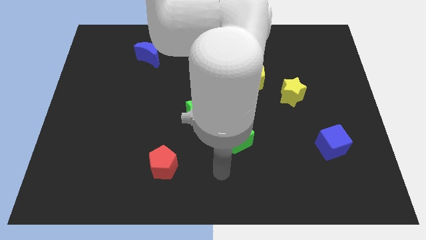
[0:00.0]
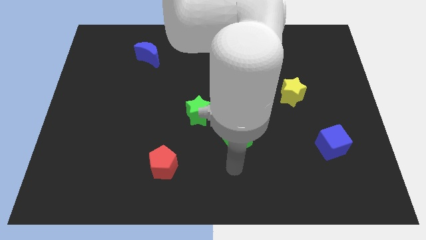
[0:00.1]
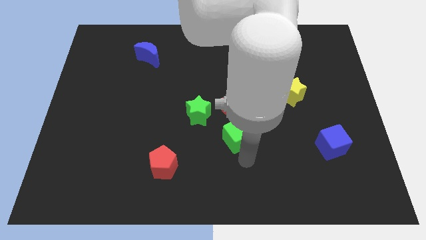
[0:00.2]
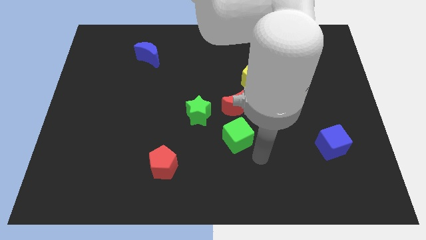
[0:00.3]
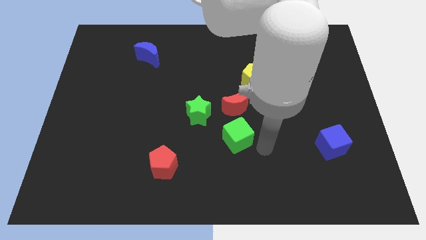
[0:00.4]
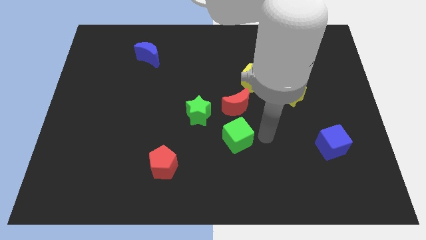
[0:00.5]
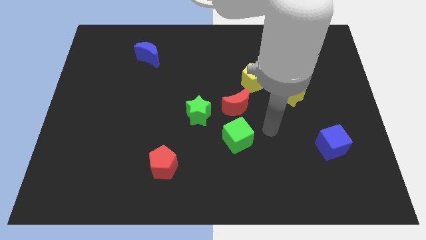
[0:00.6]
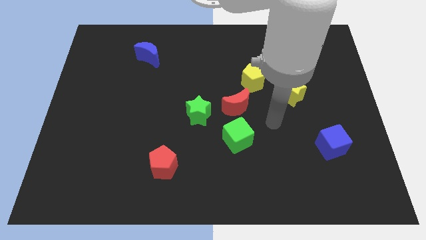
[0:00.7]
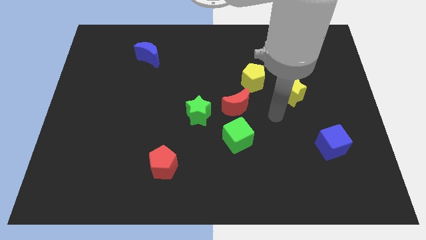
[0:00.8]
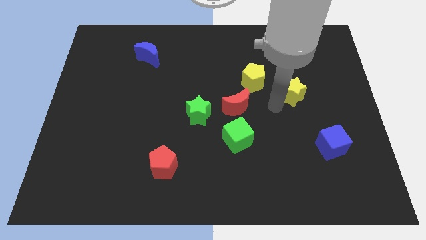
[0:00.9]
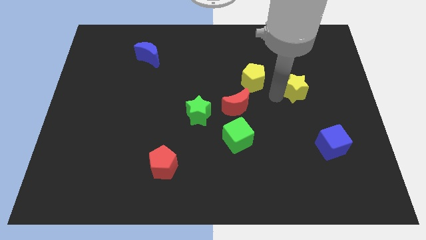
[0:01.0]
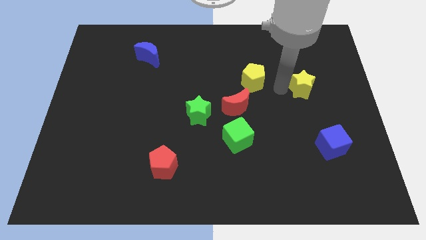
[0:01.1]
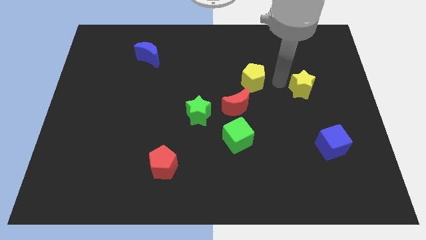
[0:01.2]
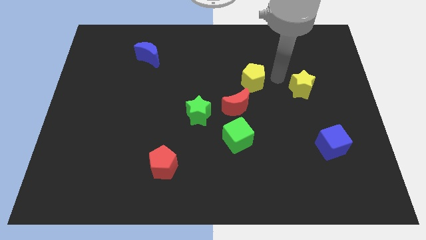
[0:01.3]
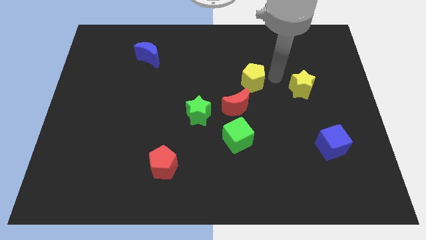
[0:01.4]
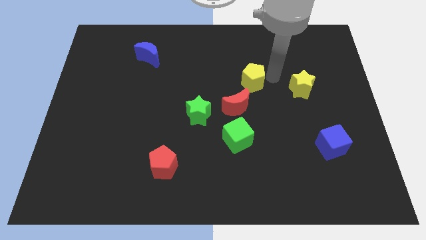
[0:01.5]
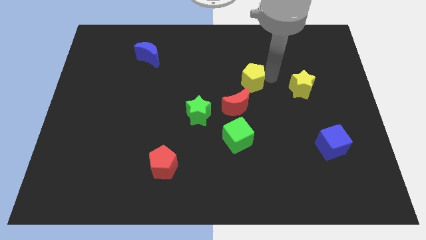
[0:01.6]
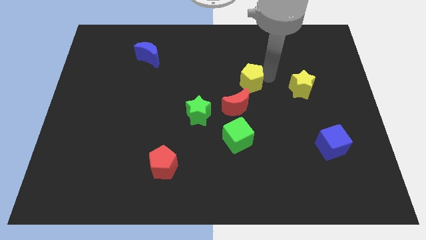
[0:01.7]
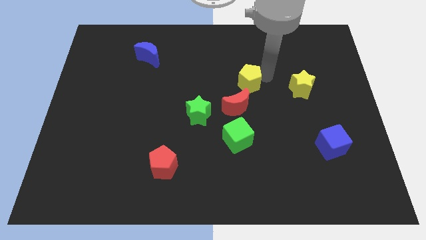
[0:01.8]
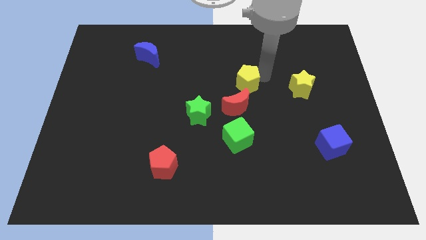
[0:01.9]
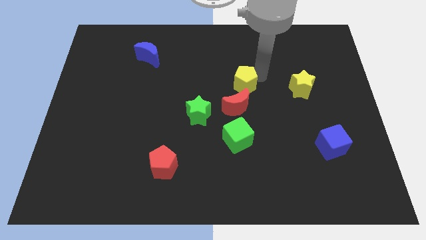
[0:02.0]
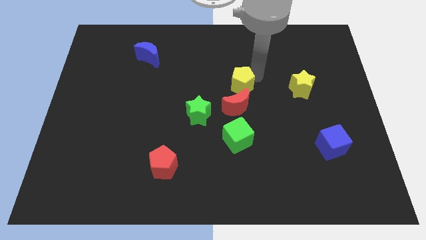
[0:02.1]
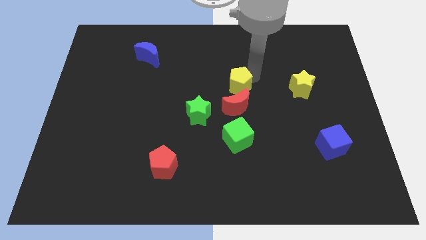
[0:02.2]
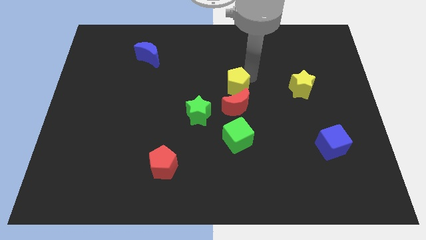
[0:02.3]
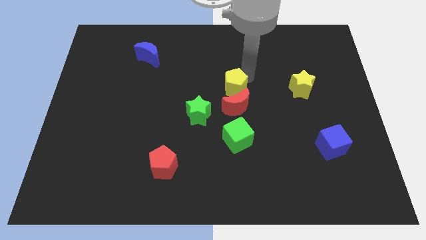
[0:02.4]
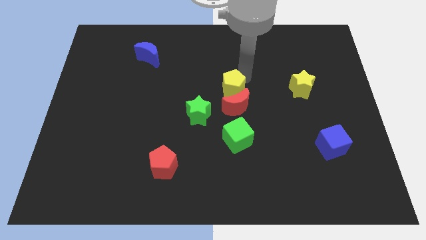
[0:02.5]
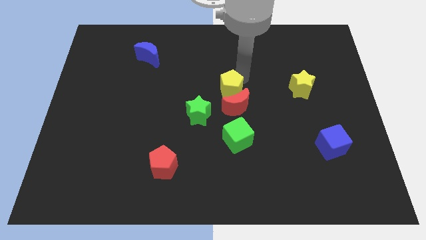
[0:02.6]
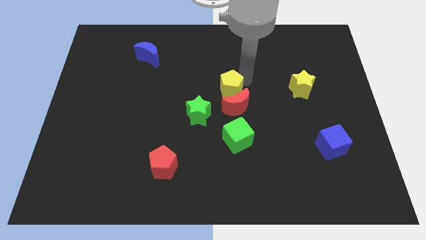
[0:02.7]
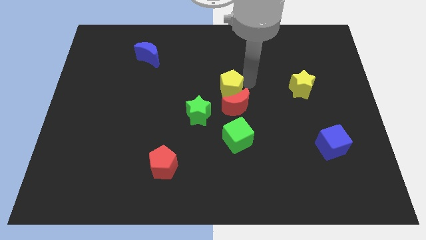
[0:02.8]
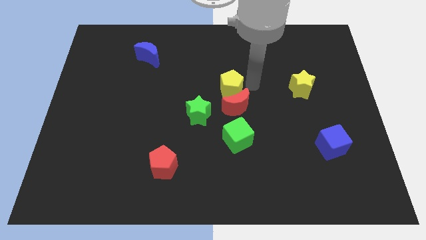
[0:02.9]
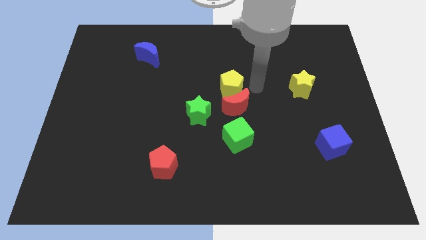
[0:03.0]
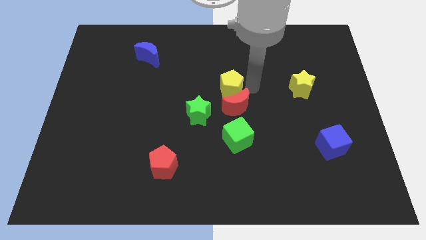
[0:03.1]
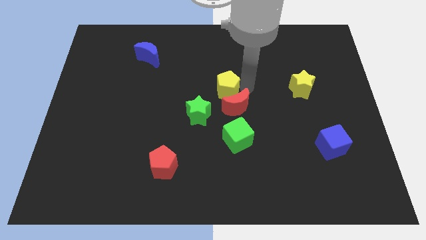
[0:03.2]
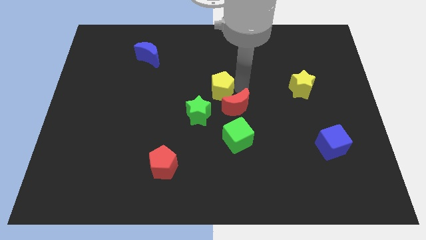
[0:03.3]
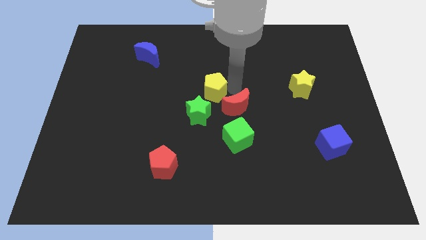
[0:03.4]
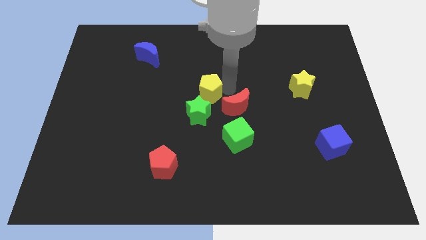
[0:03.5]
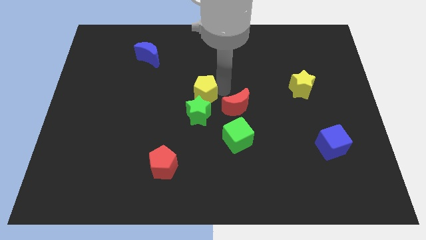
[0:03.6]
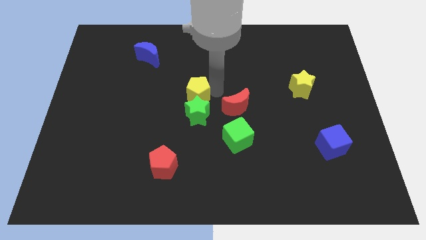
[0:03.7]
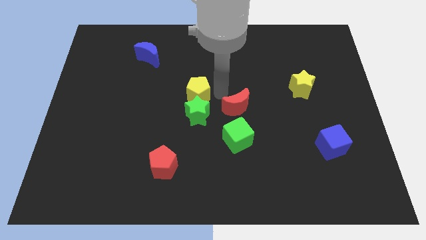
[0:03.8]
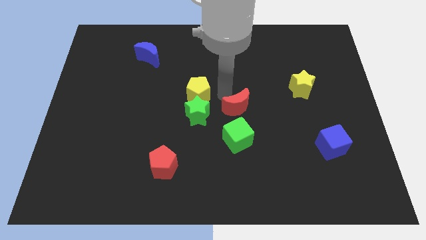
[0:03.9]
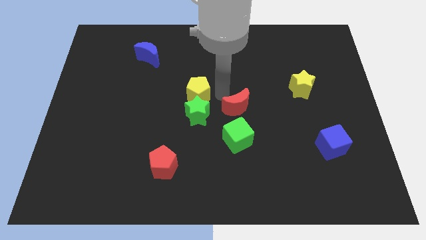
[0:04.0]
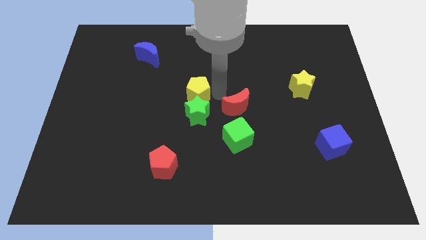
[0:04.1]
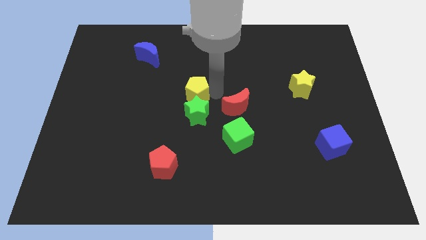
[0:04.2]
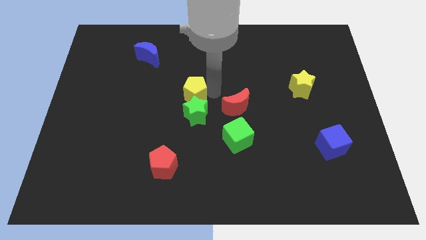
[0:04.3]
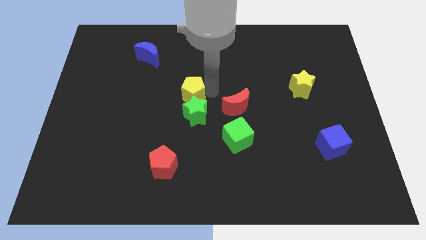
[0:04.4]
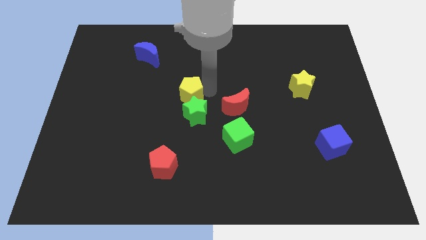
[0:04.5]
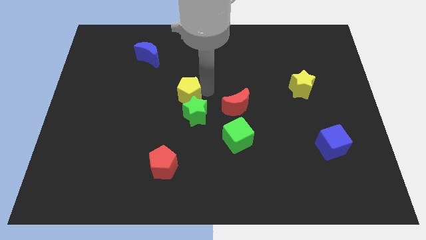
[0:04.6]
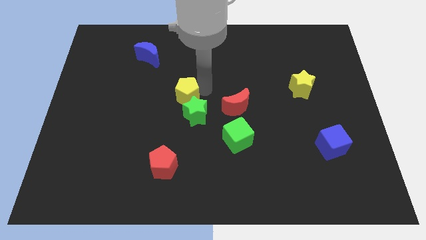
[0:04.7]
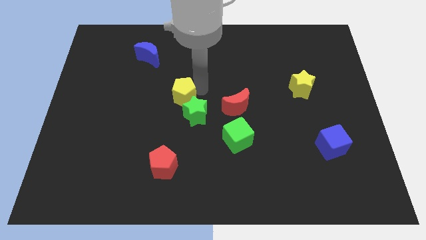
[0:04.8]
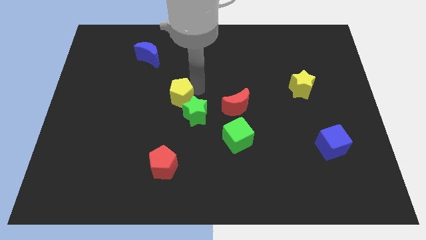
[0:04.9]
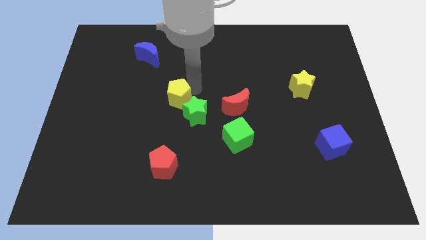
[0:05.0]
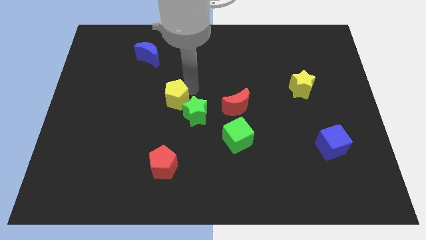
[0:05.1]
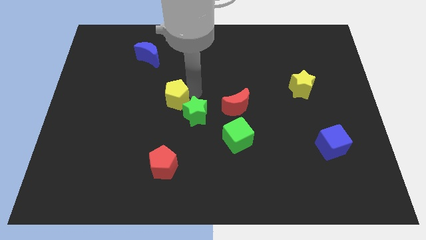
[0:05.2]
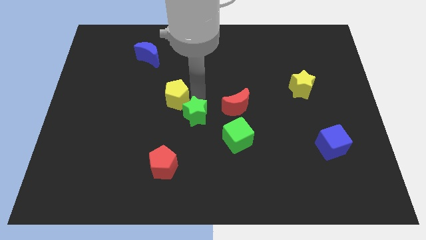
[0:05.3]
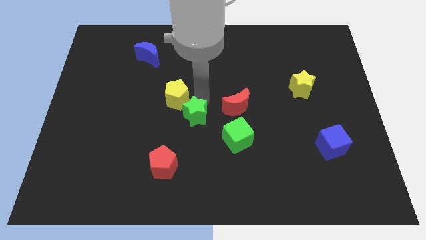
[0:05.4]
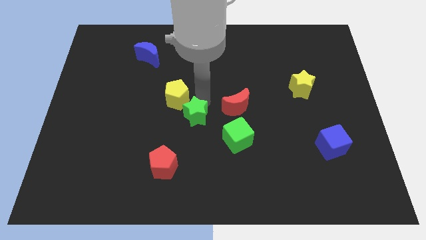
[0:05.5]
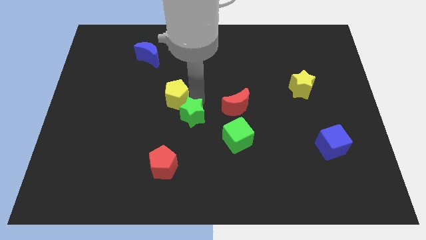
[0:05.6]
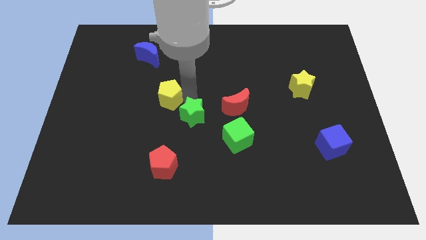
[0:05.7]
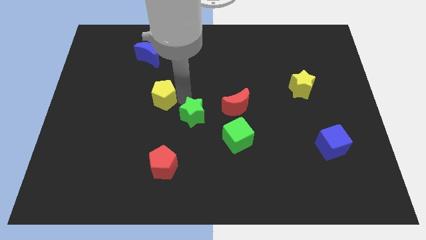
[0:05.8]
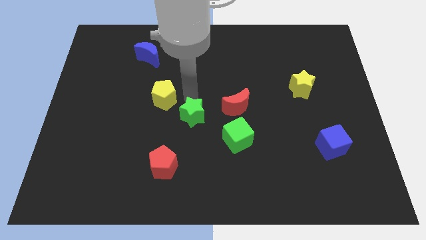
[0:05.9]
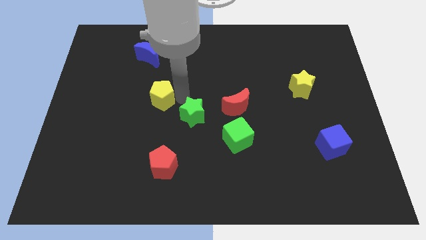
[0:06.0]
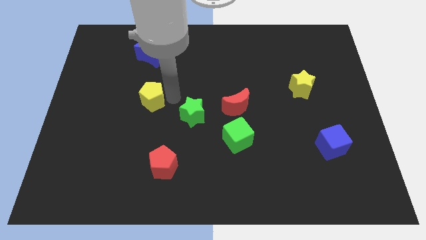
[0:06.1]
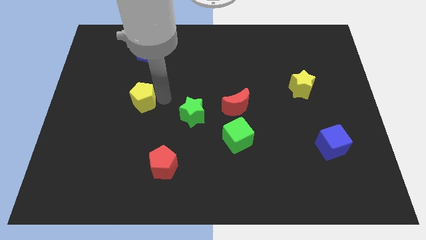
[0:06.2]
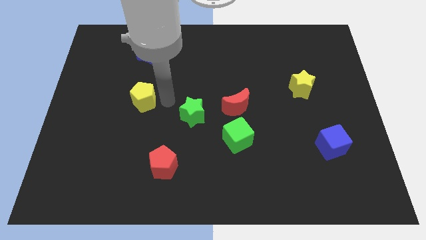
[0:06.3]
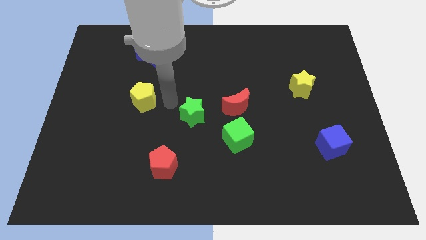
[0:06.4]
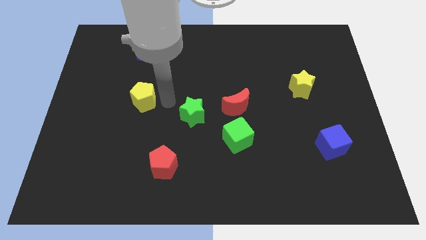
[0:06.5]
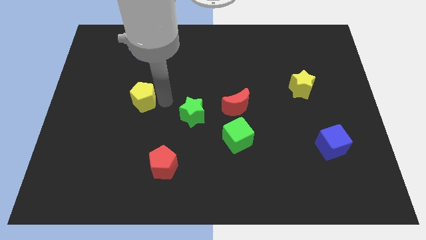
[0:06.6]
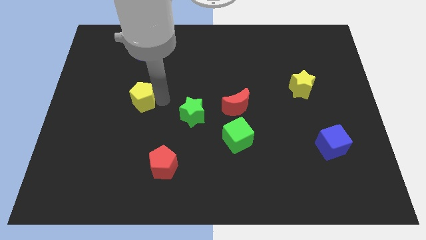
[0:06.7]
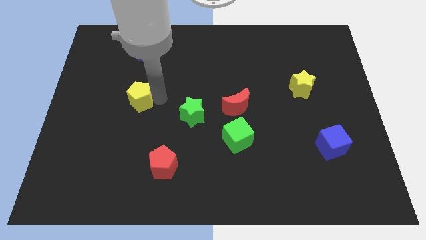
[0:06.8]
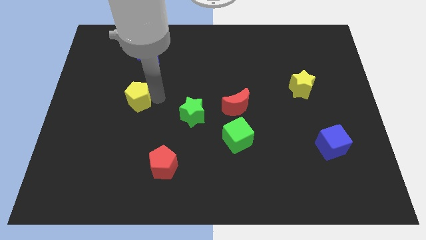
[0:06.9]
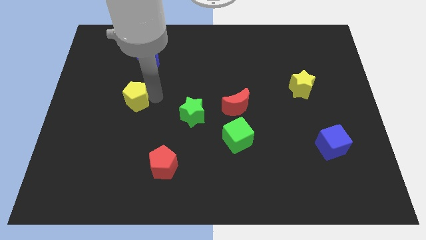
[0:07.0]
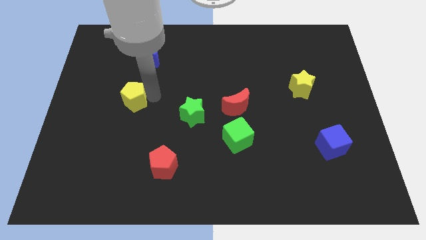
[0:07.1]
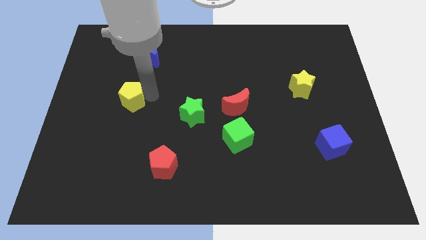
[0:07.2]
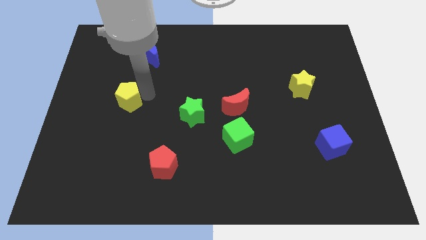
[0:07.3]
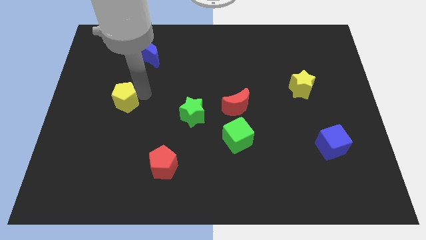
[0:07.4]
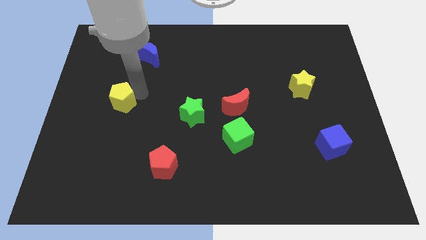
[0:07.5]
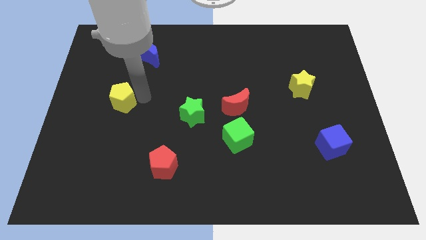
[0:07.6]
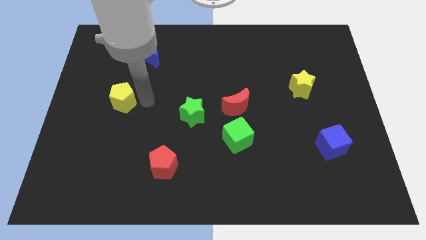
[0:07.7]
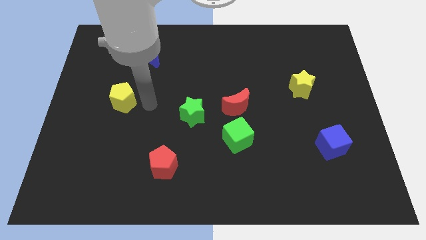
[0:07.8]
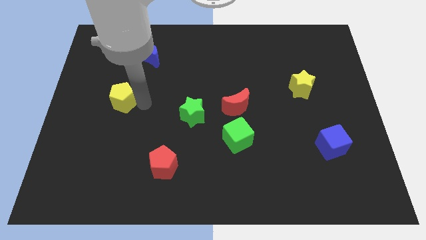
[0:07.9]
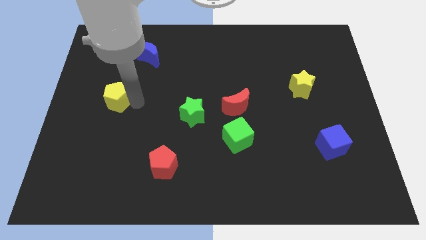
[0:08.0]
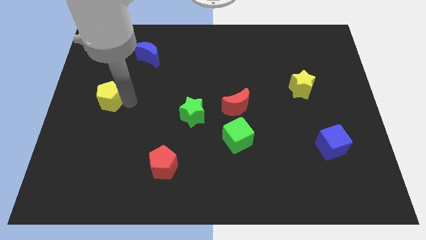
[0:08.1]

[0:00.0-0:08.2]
move the yellow pentagon to the center left
